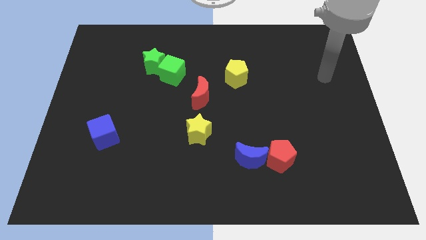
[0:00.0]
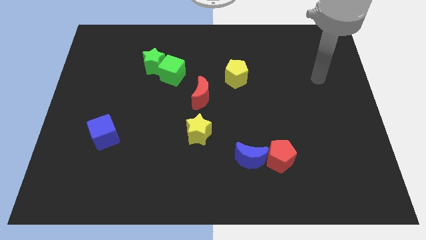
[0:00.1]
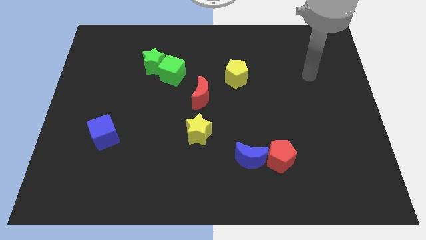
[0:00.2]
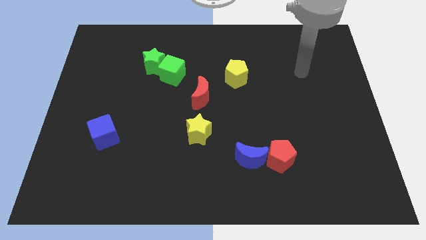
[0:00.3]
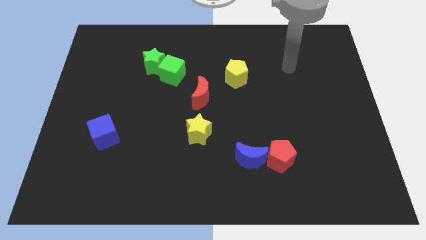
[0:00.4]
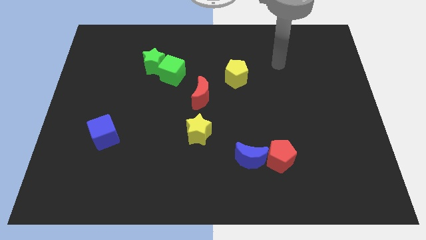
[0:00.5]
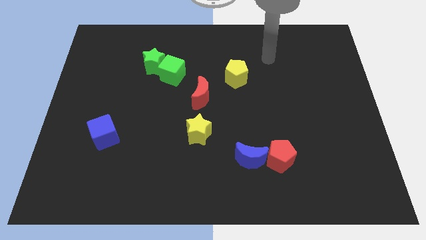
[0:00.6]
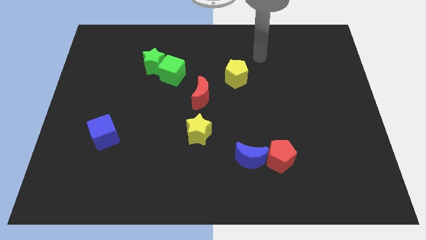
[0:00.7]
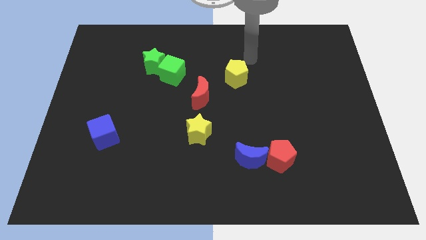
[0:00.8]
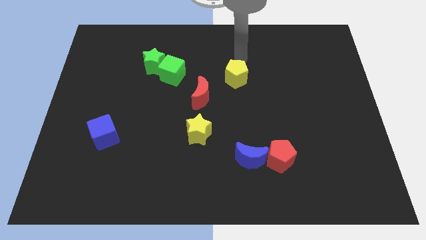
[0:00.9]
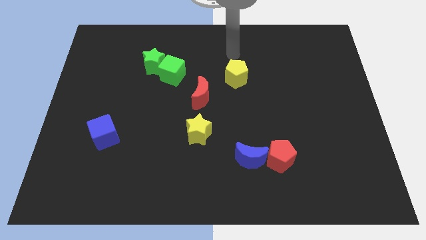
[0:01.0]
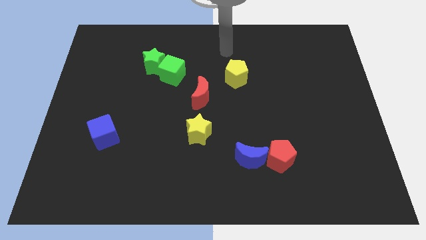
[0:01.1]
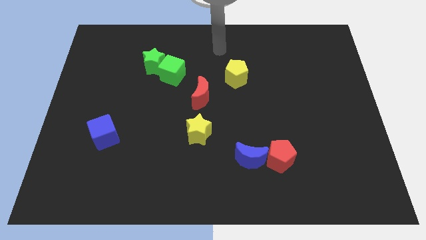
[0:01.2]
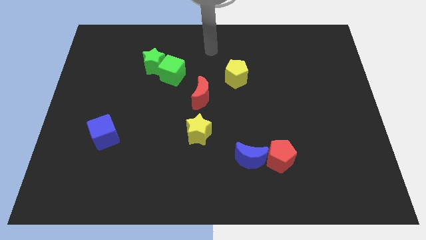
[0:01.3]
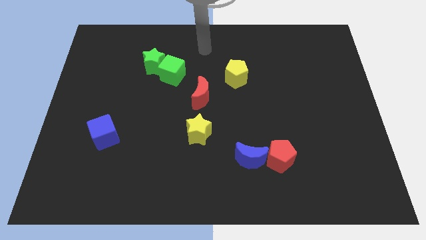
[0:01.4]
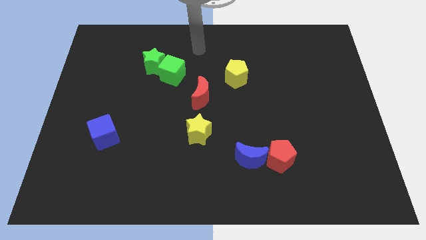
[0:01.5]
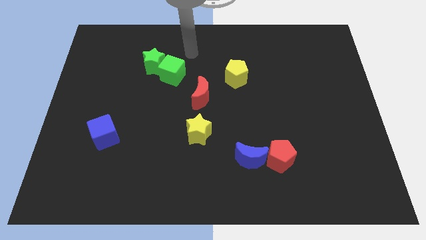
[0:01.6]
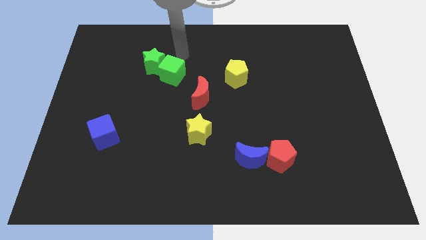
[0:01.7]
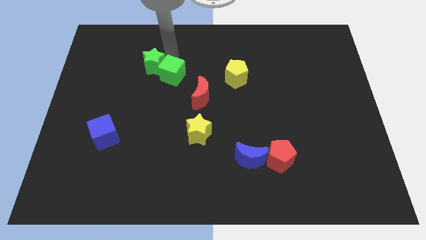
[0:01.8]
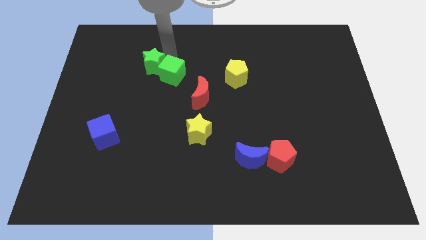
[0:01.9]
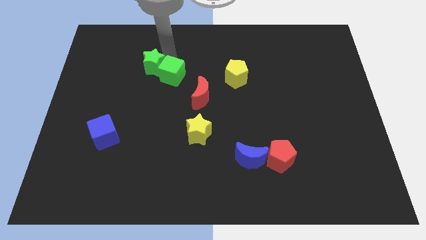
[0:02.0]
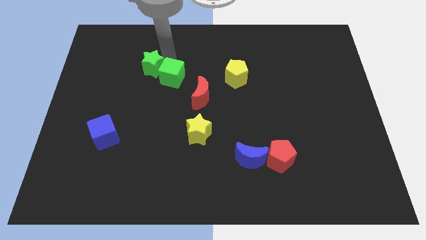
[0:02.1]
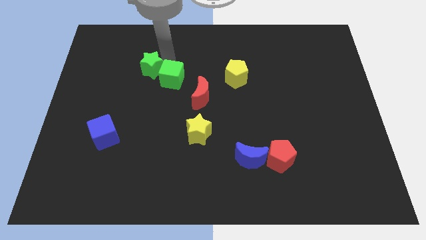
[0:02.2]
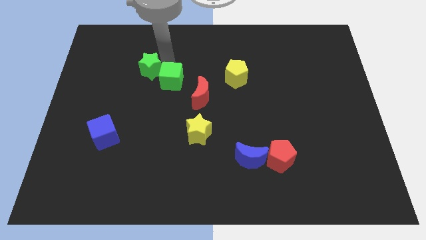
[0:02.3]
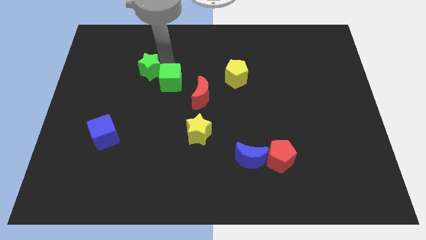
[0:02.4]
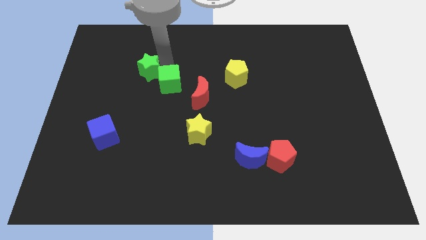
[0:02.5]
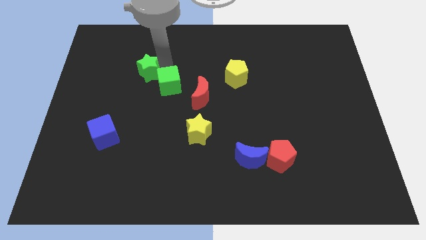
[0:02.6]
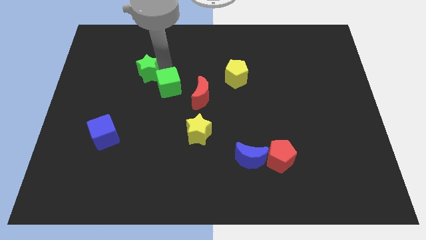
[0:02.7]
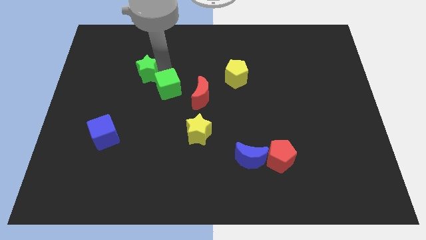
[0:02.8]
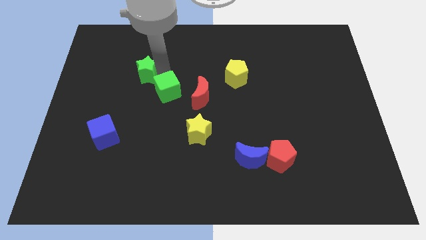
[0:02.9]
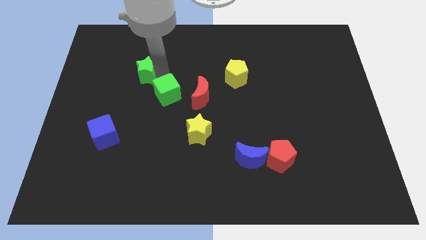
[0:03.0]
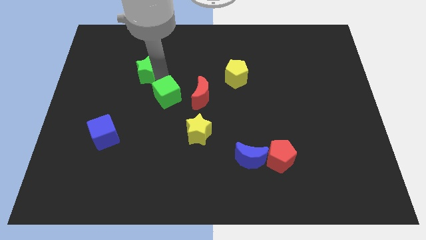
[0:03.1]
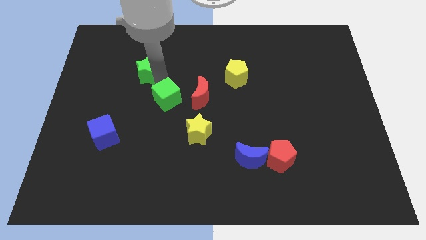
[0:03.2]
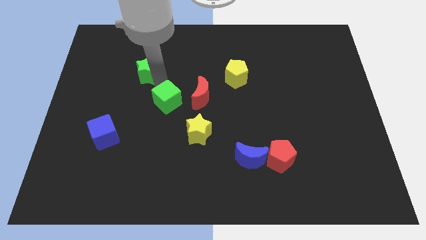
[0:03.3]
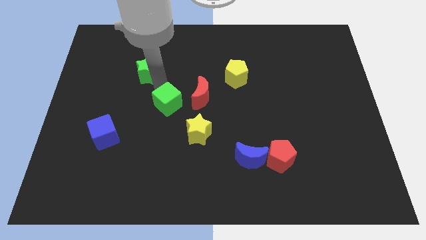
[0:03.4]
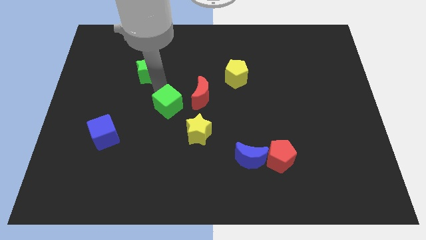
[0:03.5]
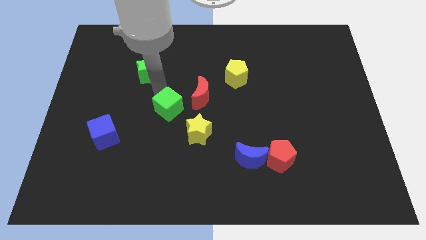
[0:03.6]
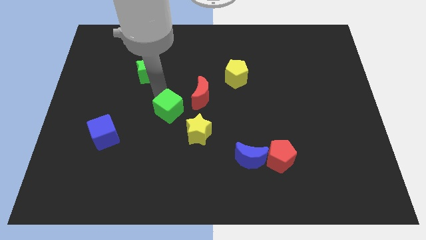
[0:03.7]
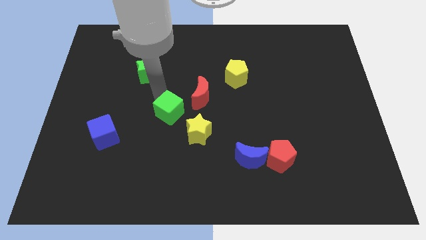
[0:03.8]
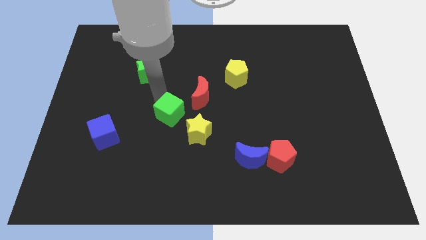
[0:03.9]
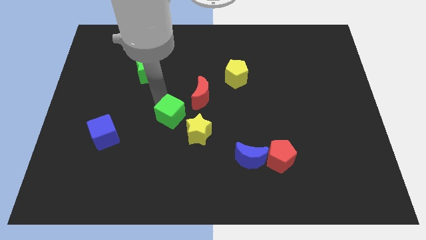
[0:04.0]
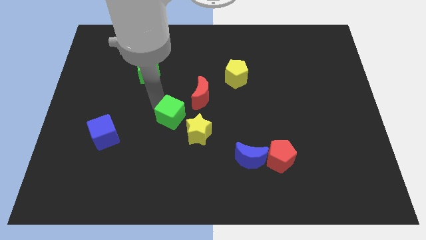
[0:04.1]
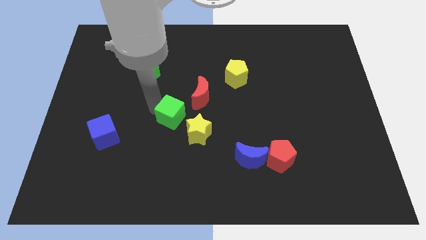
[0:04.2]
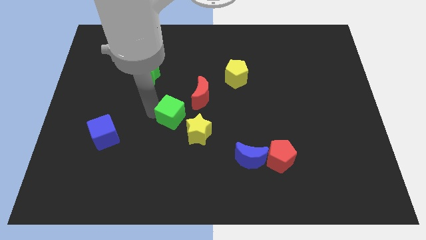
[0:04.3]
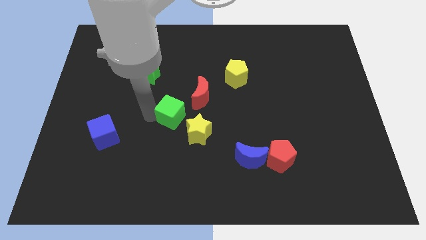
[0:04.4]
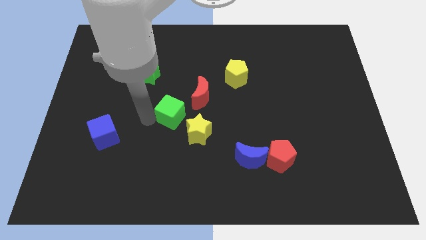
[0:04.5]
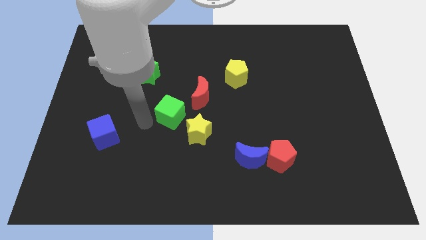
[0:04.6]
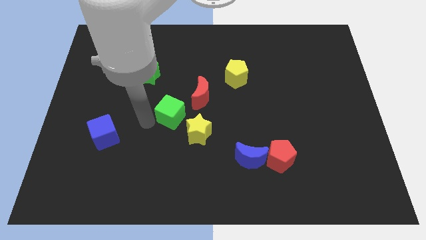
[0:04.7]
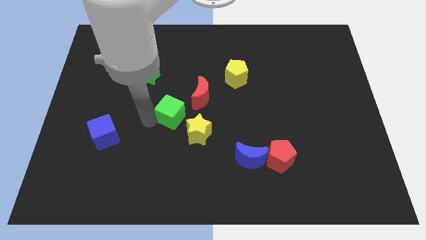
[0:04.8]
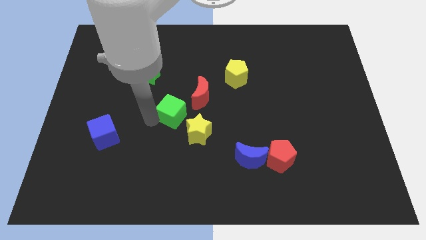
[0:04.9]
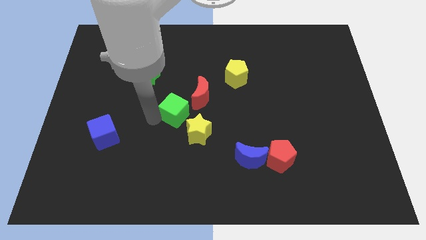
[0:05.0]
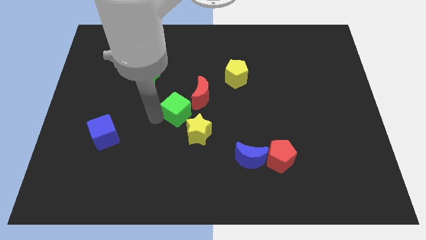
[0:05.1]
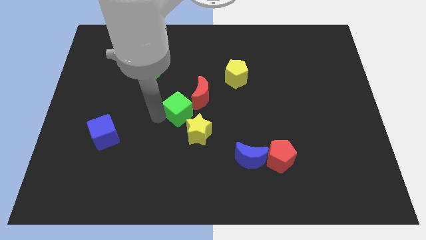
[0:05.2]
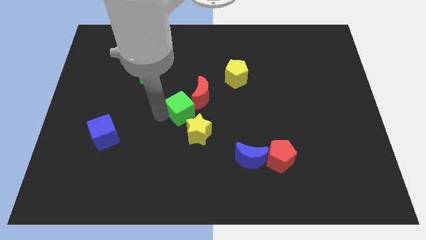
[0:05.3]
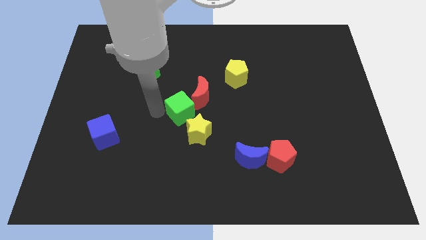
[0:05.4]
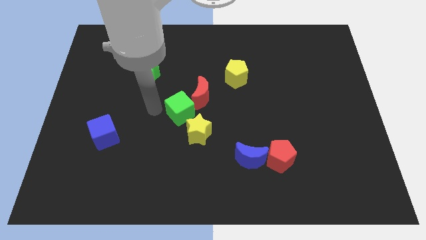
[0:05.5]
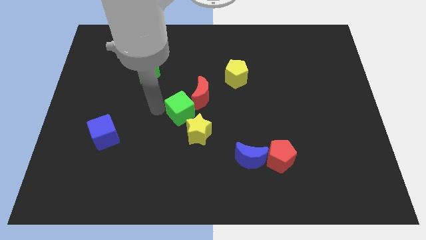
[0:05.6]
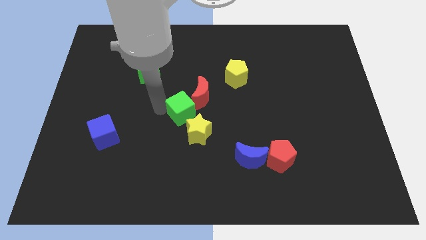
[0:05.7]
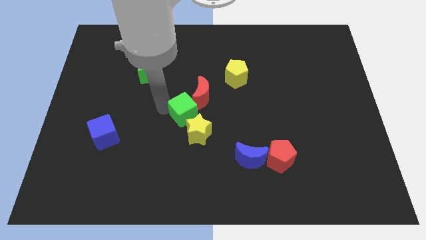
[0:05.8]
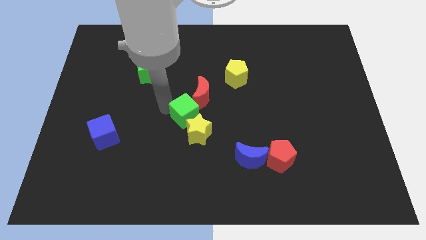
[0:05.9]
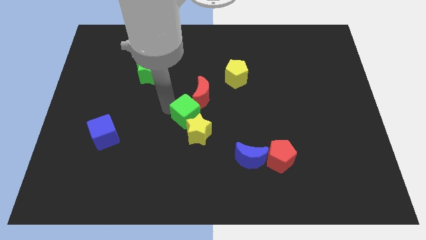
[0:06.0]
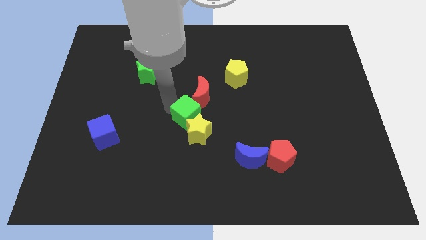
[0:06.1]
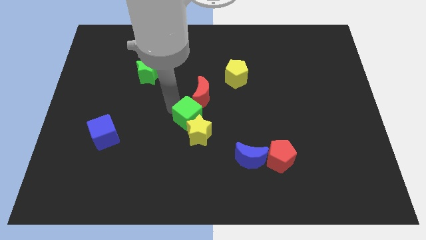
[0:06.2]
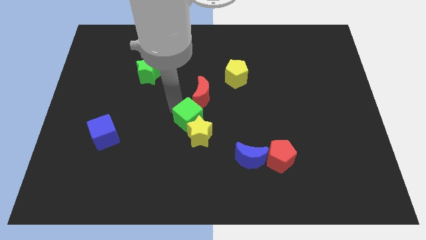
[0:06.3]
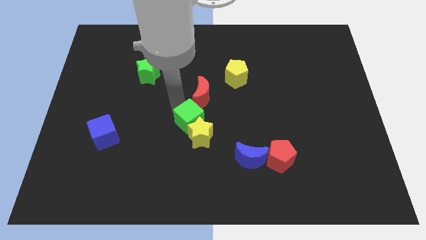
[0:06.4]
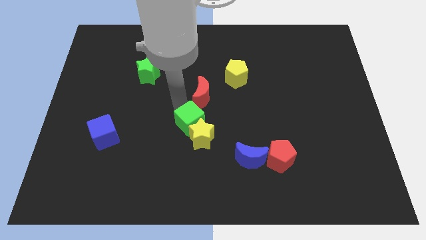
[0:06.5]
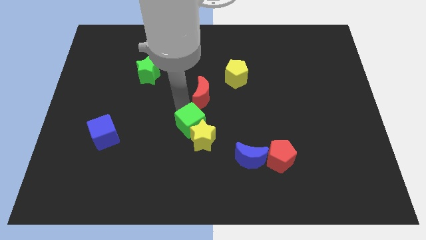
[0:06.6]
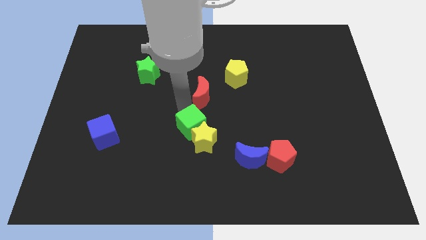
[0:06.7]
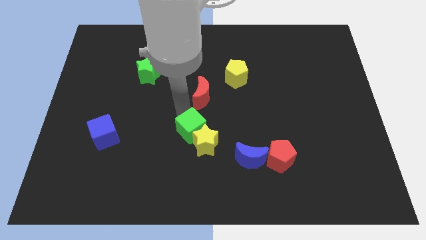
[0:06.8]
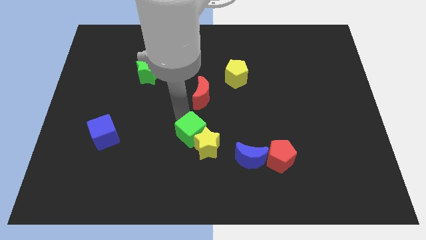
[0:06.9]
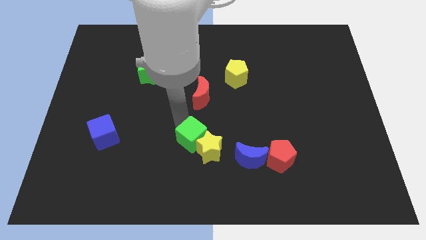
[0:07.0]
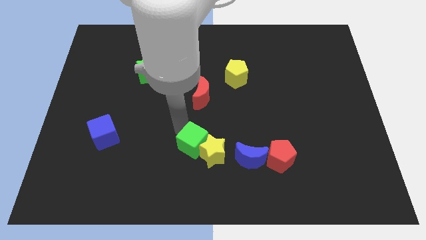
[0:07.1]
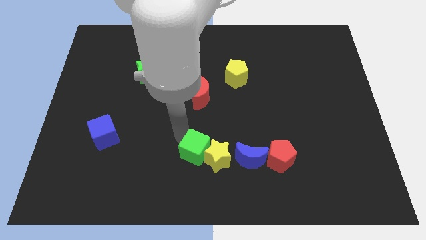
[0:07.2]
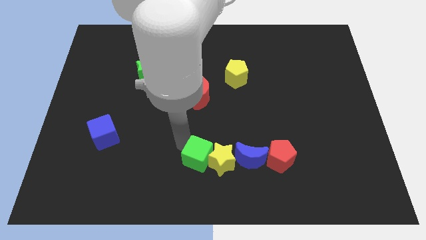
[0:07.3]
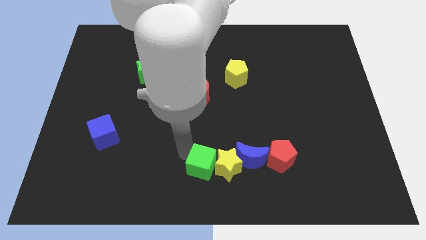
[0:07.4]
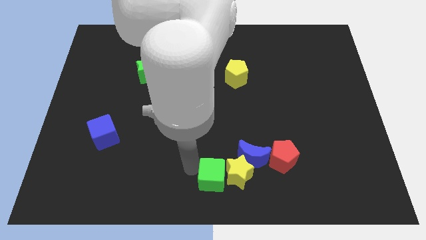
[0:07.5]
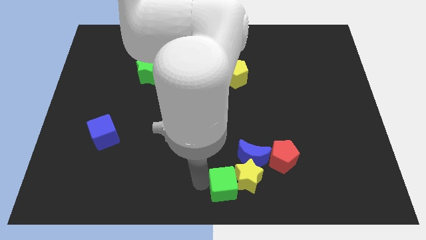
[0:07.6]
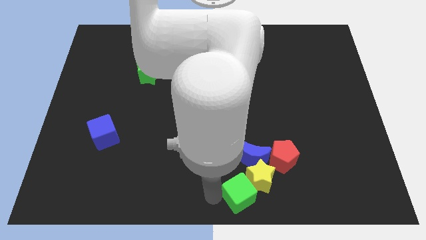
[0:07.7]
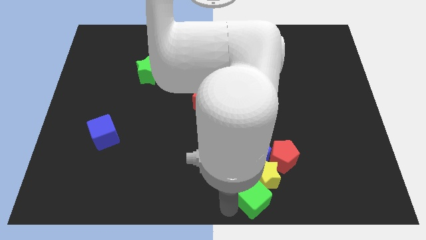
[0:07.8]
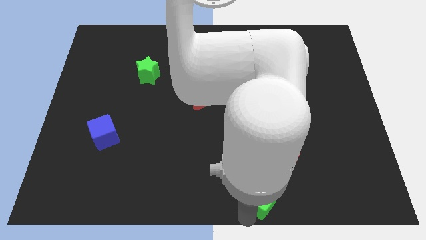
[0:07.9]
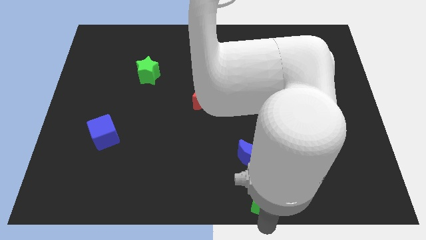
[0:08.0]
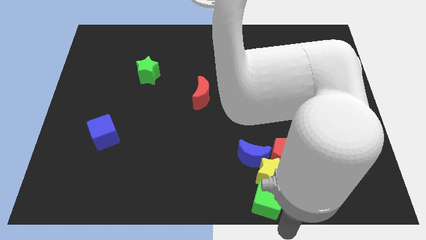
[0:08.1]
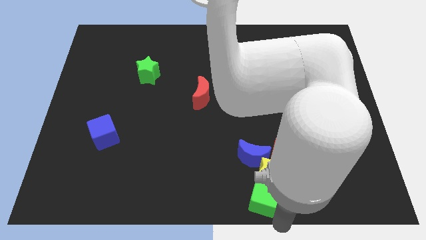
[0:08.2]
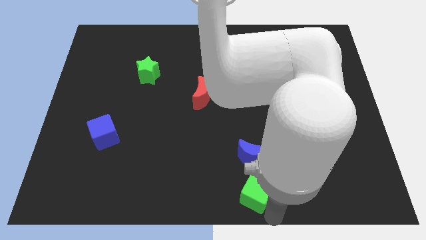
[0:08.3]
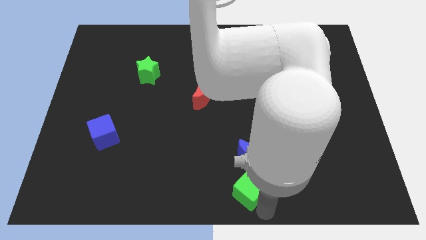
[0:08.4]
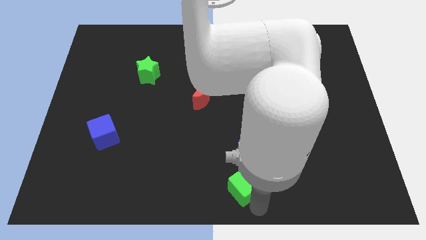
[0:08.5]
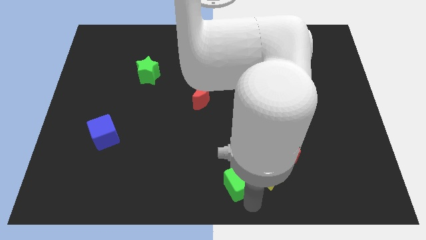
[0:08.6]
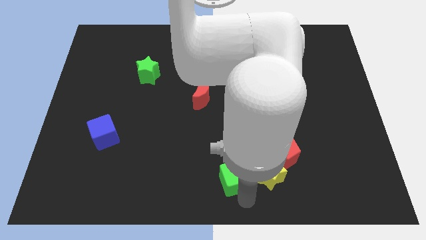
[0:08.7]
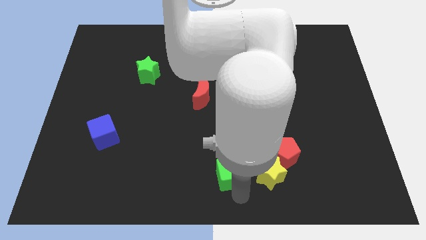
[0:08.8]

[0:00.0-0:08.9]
push the green cube to the blue moon
